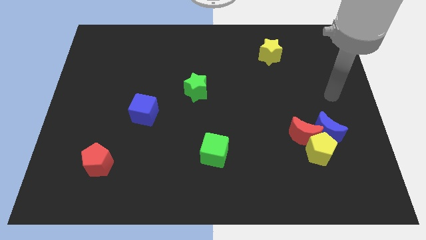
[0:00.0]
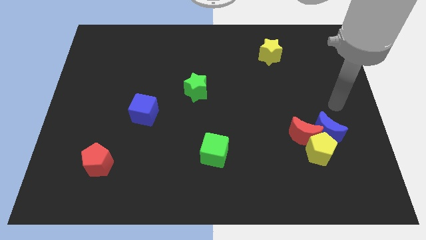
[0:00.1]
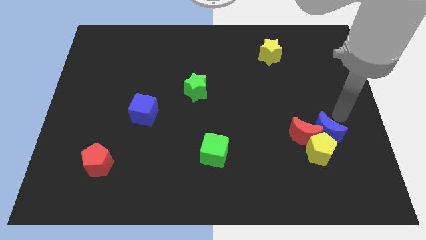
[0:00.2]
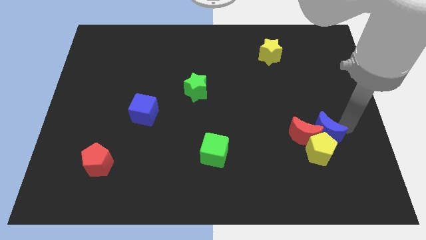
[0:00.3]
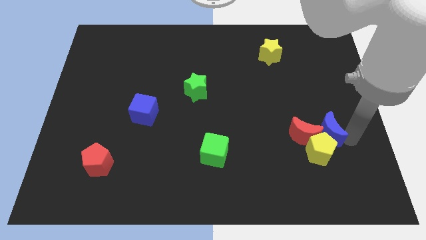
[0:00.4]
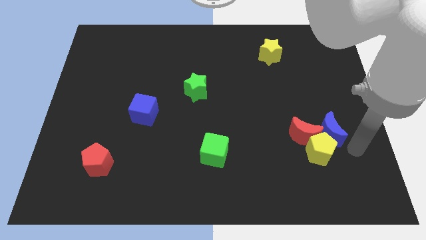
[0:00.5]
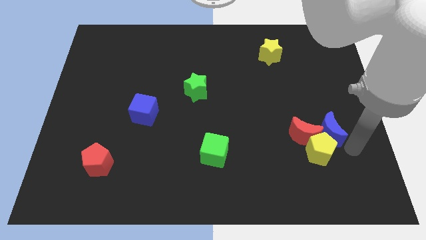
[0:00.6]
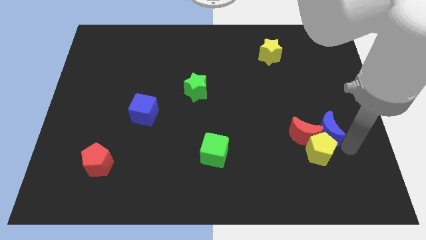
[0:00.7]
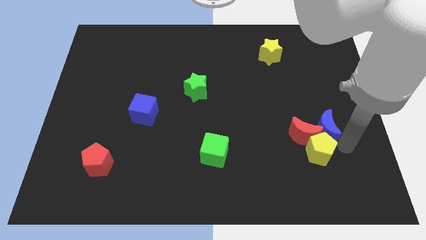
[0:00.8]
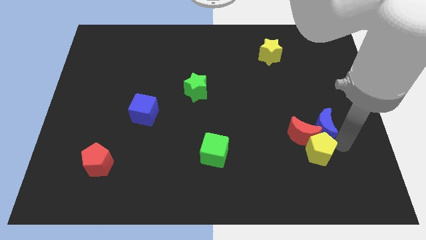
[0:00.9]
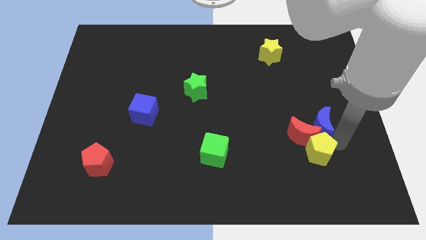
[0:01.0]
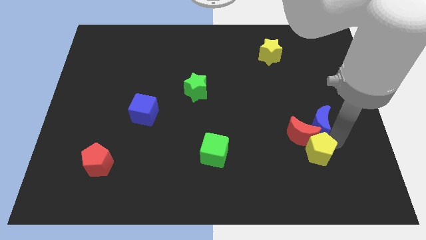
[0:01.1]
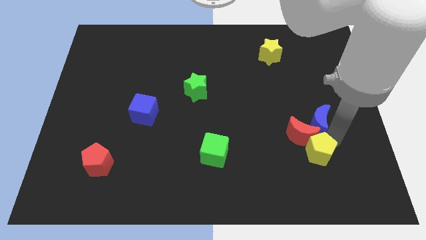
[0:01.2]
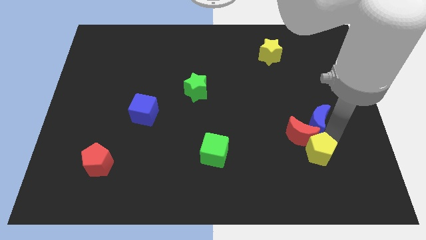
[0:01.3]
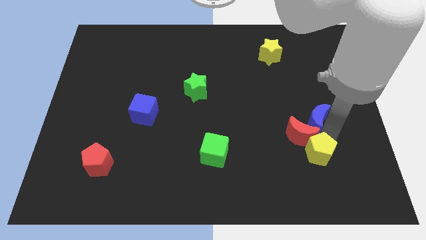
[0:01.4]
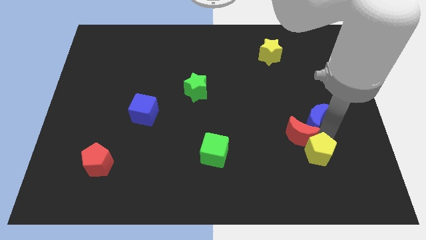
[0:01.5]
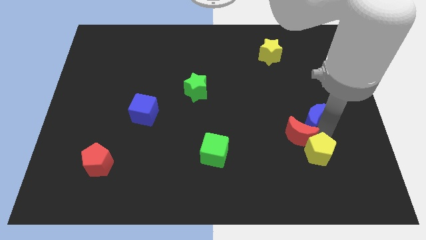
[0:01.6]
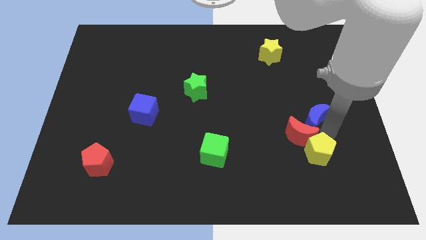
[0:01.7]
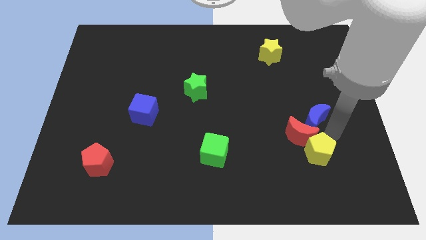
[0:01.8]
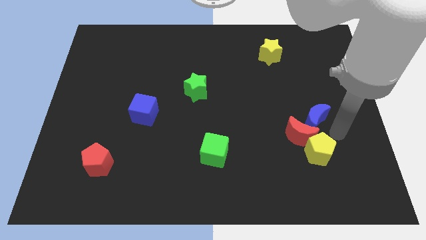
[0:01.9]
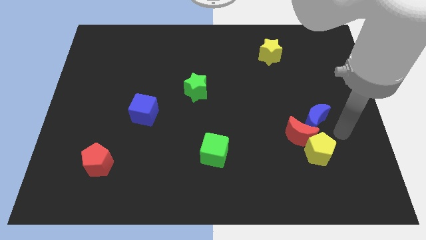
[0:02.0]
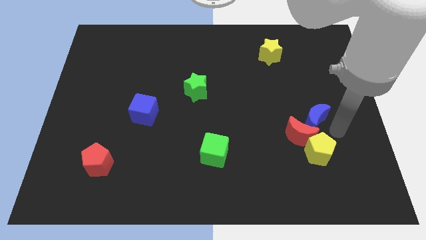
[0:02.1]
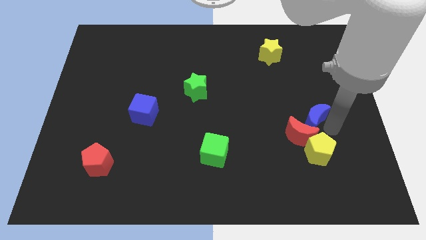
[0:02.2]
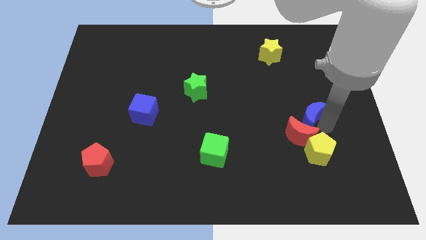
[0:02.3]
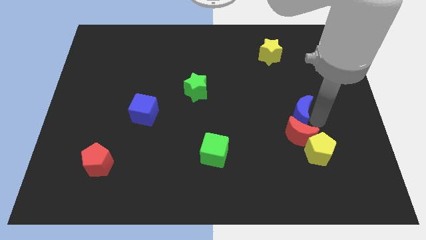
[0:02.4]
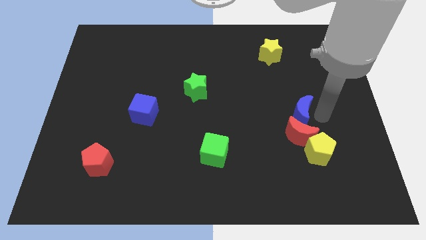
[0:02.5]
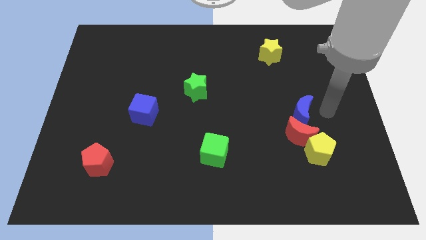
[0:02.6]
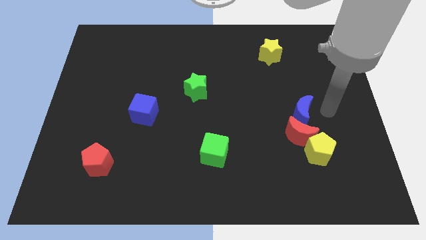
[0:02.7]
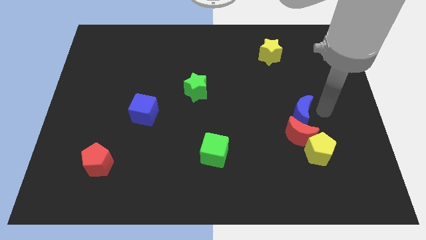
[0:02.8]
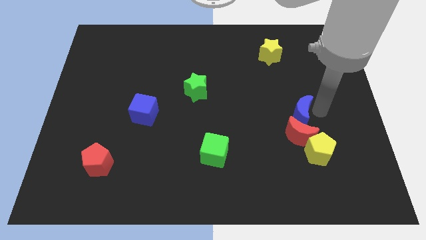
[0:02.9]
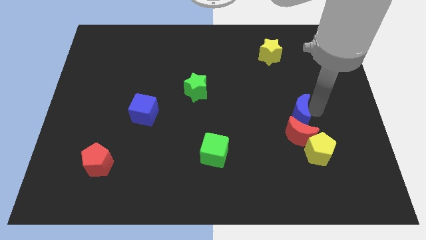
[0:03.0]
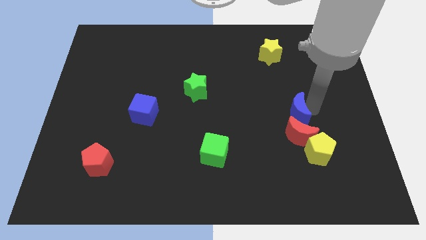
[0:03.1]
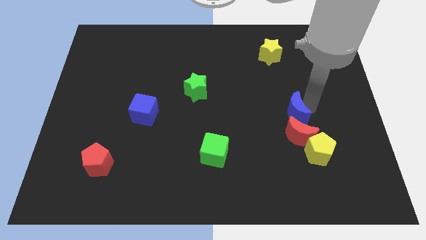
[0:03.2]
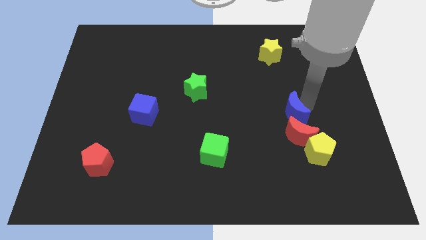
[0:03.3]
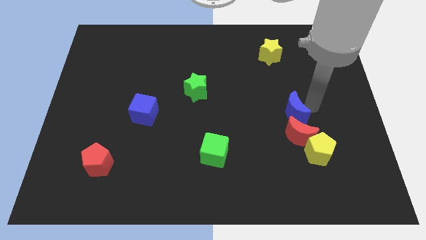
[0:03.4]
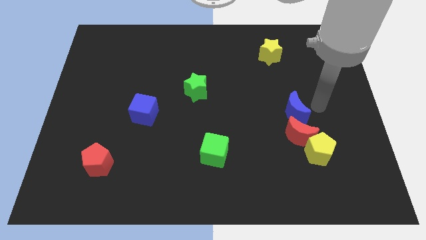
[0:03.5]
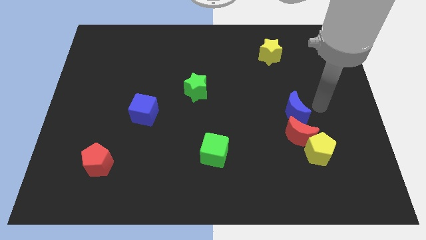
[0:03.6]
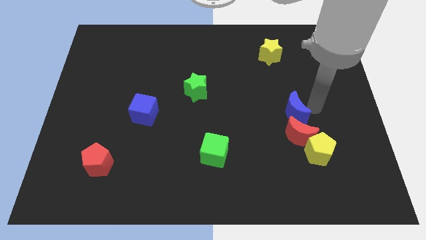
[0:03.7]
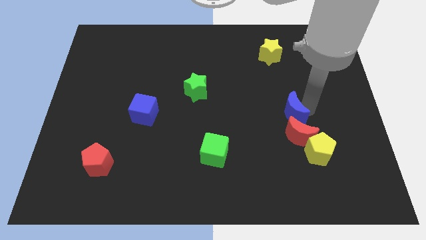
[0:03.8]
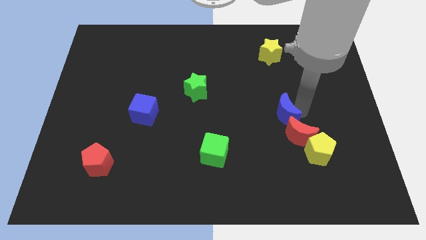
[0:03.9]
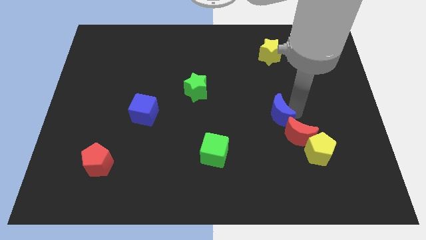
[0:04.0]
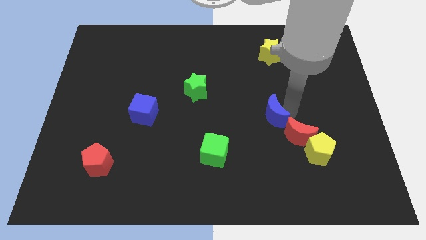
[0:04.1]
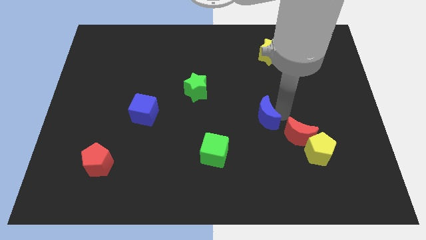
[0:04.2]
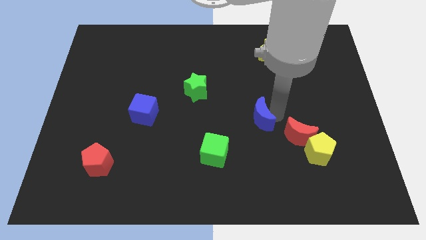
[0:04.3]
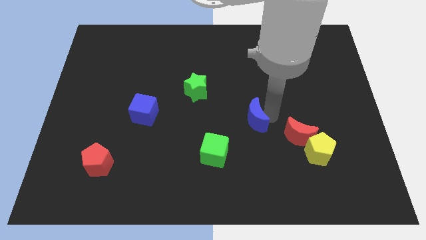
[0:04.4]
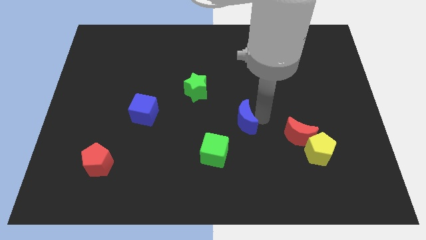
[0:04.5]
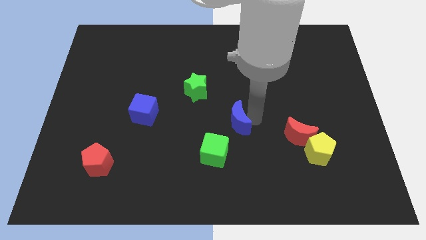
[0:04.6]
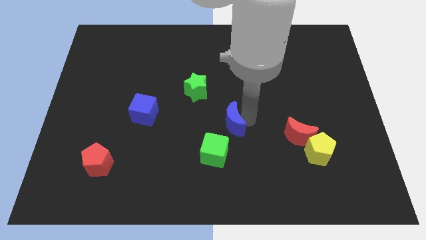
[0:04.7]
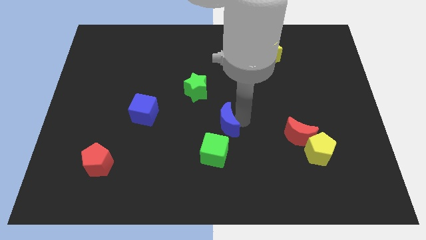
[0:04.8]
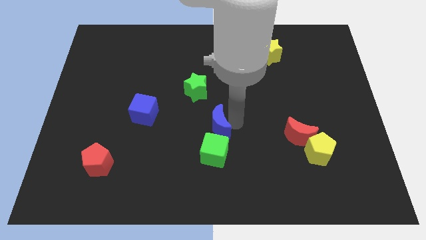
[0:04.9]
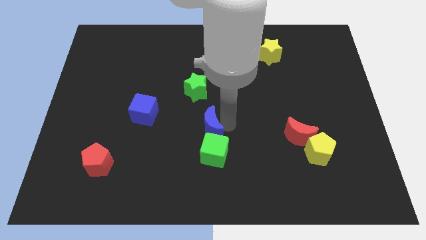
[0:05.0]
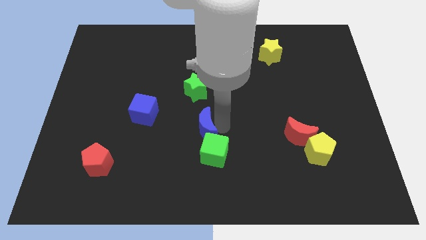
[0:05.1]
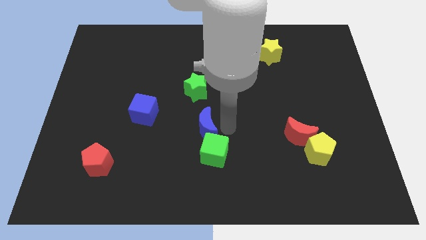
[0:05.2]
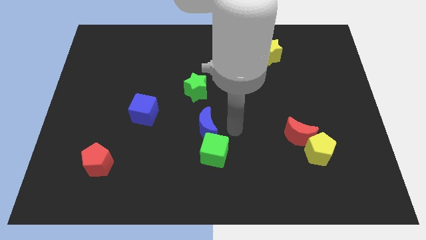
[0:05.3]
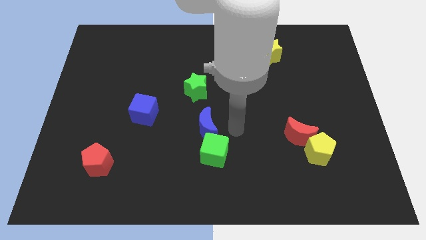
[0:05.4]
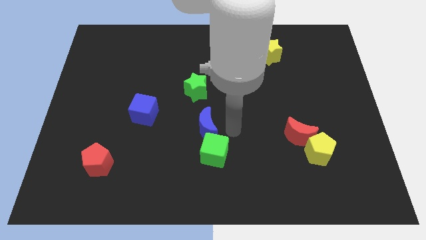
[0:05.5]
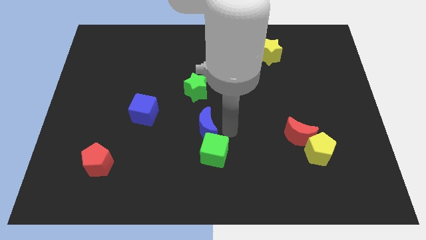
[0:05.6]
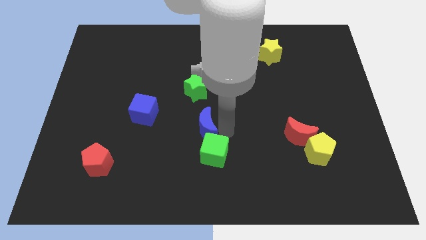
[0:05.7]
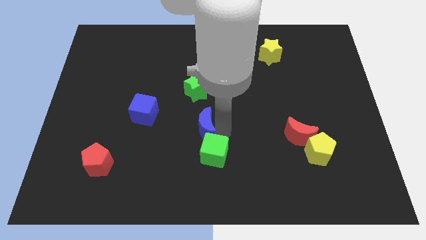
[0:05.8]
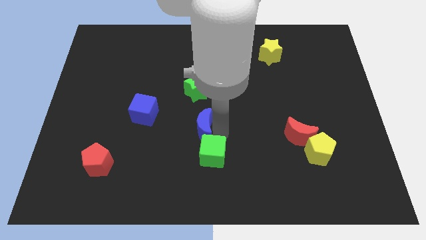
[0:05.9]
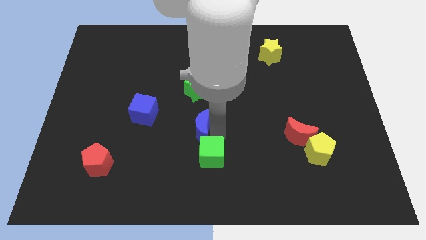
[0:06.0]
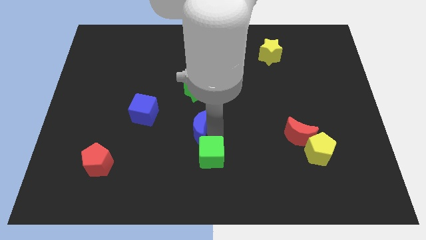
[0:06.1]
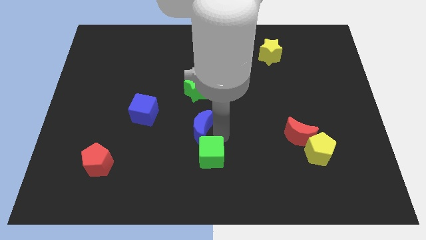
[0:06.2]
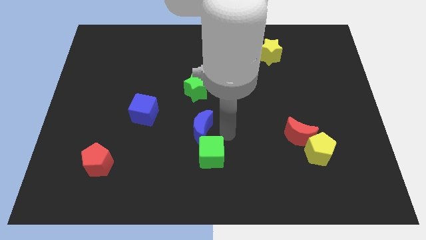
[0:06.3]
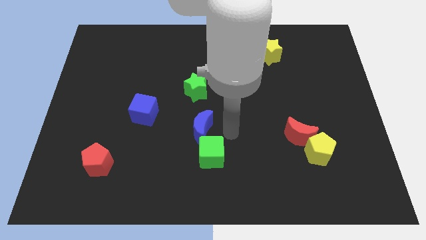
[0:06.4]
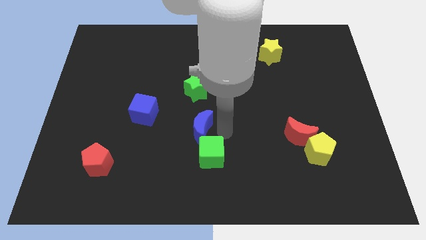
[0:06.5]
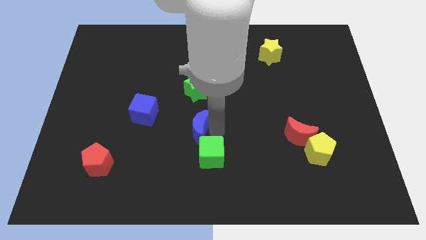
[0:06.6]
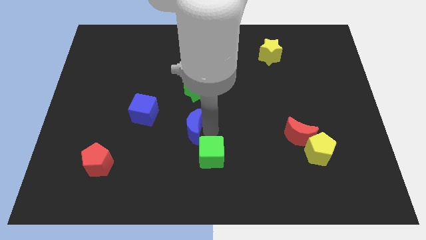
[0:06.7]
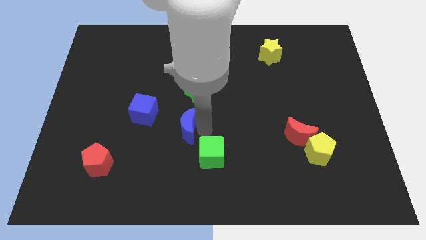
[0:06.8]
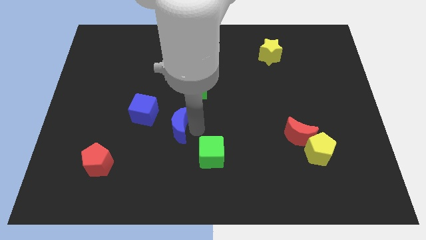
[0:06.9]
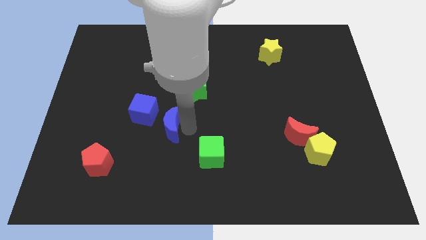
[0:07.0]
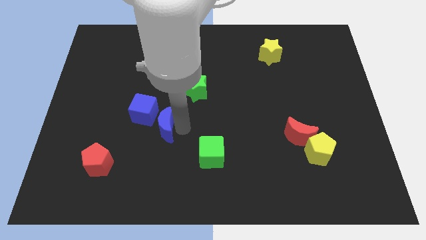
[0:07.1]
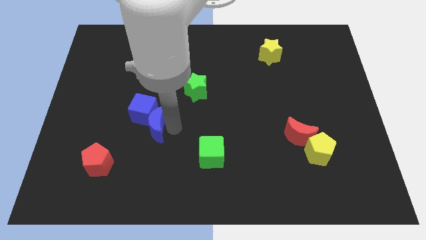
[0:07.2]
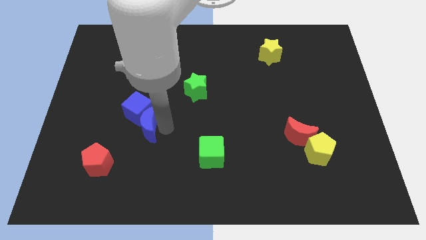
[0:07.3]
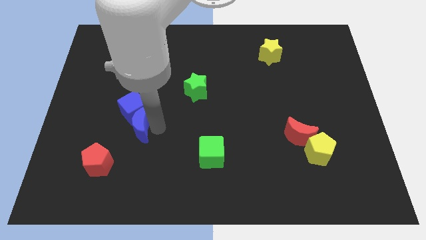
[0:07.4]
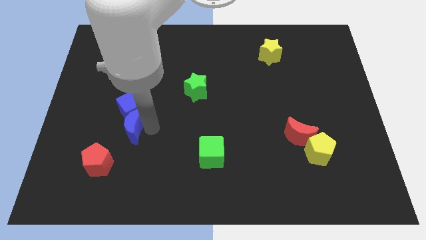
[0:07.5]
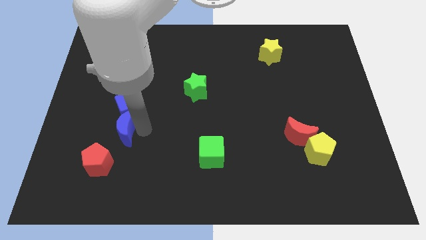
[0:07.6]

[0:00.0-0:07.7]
slide the blue moon above the red pentagon
